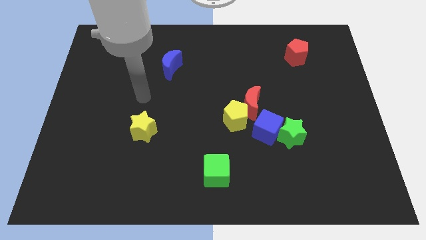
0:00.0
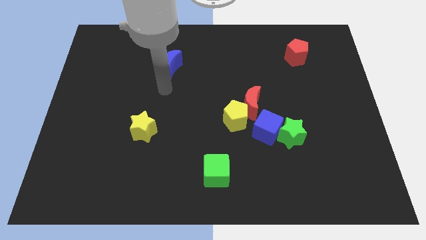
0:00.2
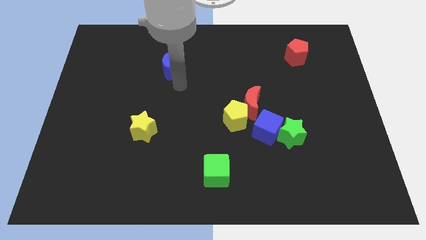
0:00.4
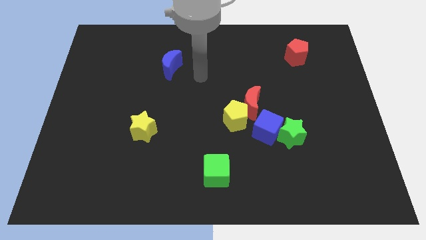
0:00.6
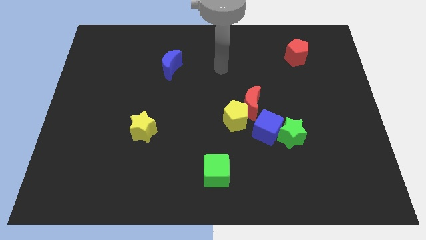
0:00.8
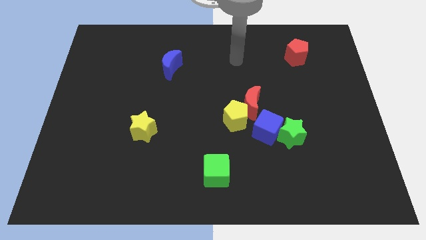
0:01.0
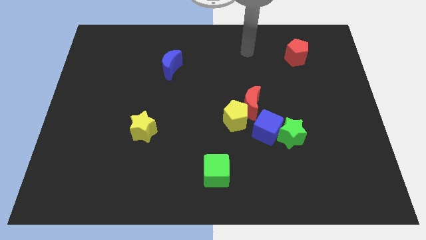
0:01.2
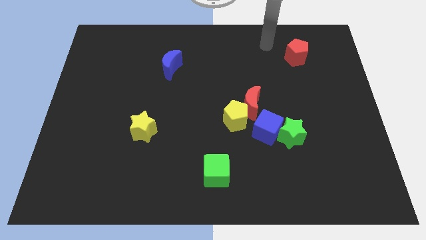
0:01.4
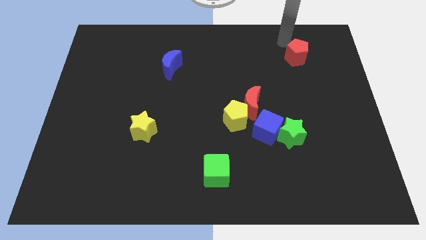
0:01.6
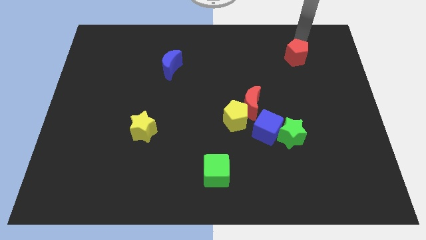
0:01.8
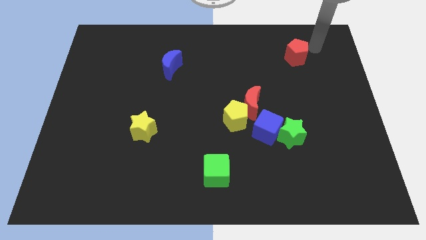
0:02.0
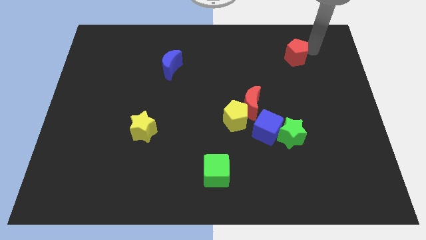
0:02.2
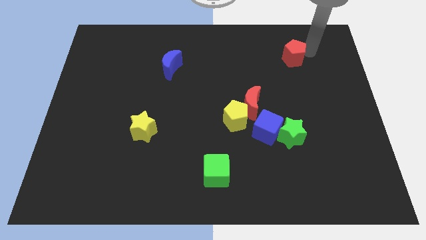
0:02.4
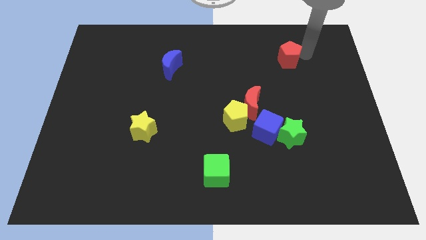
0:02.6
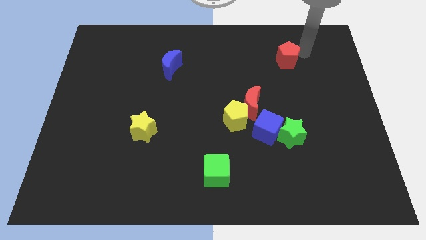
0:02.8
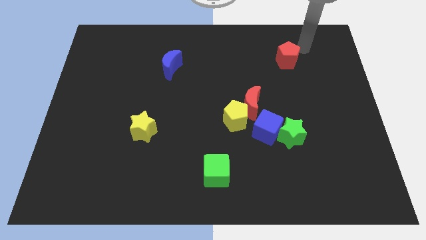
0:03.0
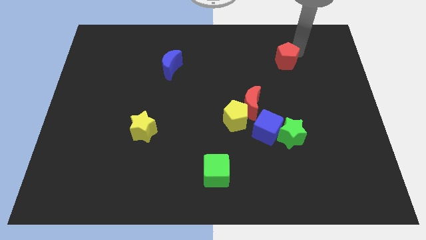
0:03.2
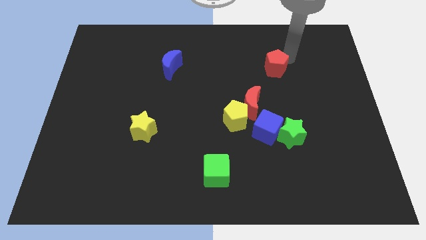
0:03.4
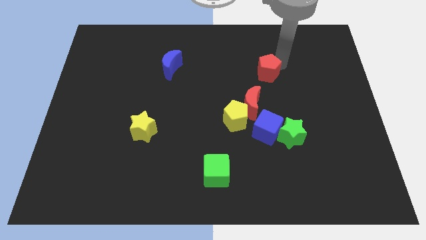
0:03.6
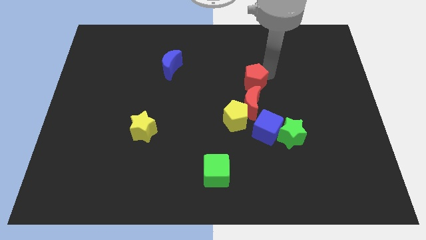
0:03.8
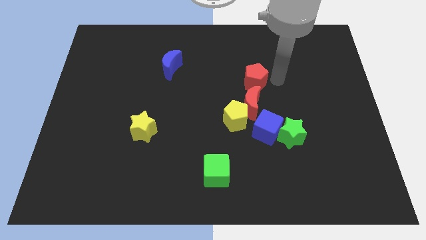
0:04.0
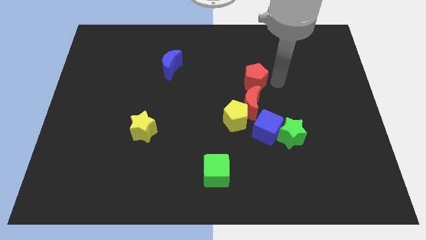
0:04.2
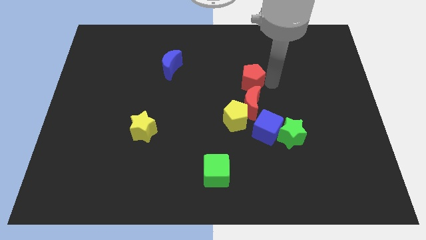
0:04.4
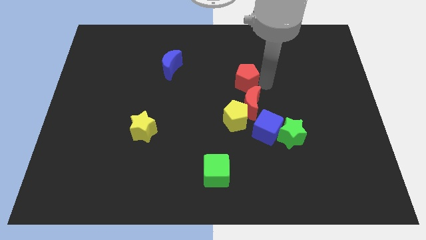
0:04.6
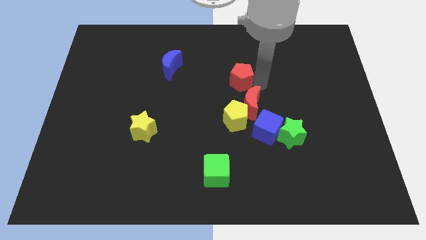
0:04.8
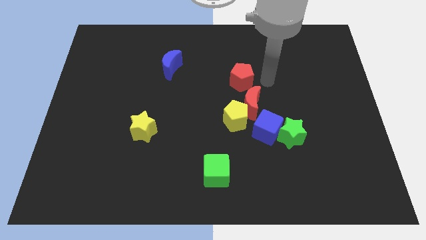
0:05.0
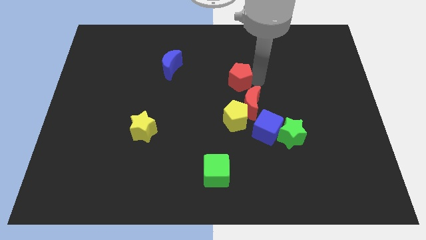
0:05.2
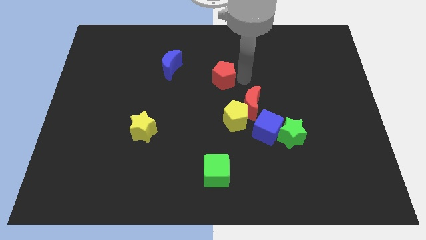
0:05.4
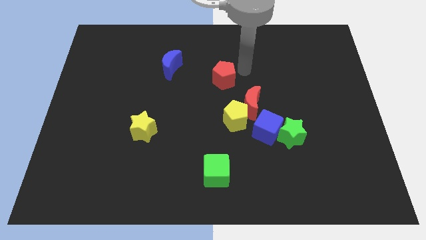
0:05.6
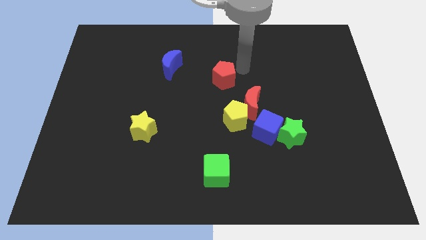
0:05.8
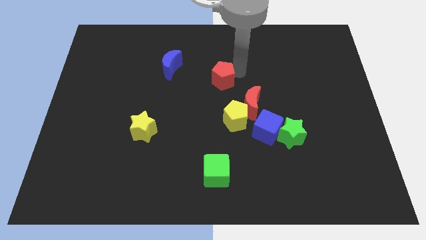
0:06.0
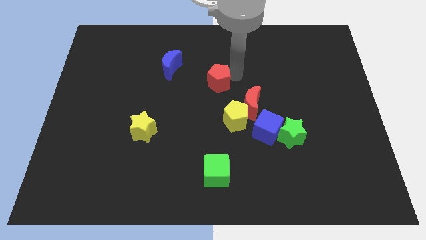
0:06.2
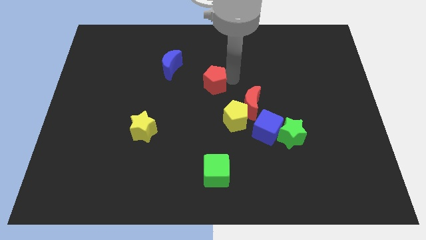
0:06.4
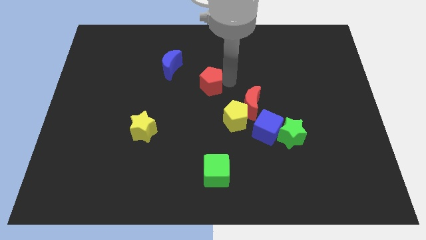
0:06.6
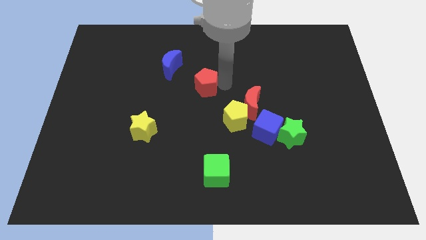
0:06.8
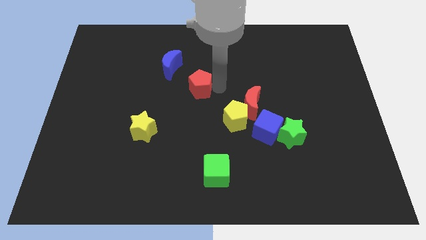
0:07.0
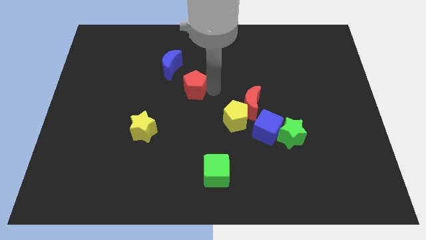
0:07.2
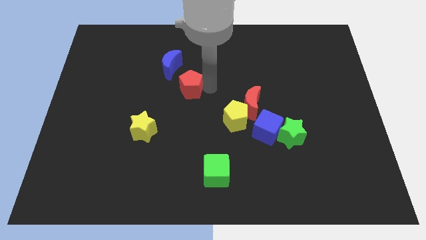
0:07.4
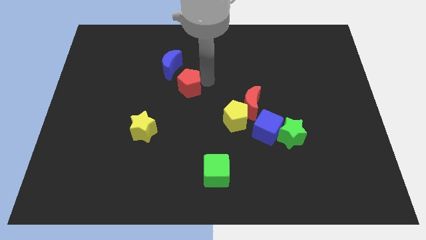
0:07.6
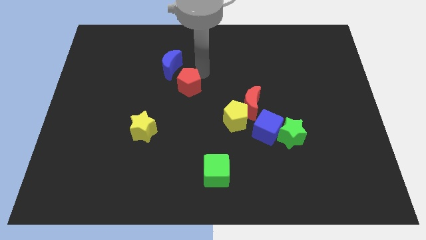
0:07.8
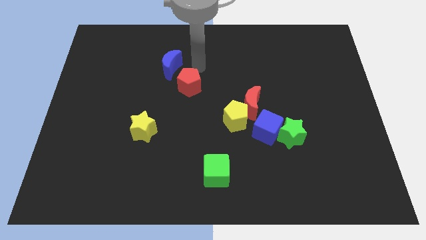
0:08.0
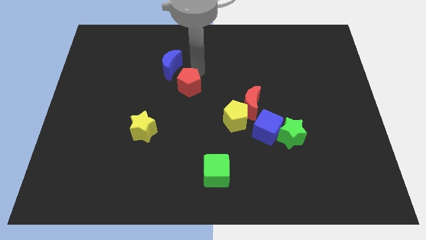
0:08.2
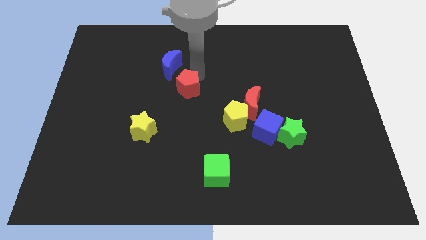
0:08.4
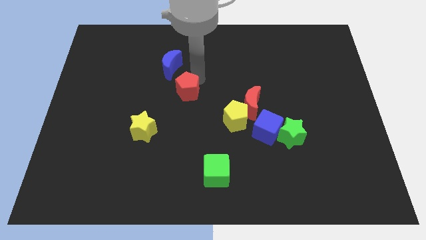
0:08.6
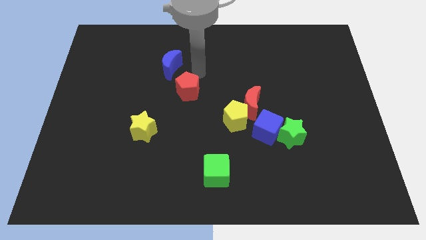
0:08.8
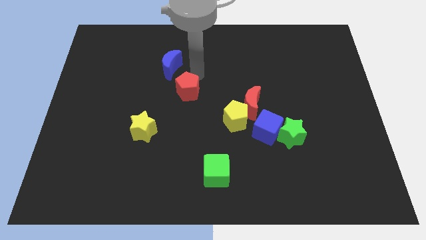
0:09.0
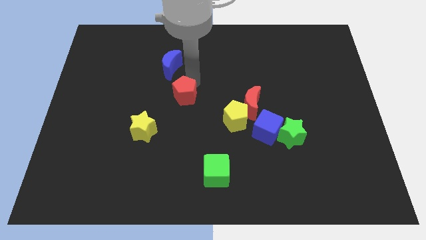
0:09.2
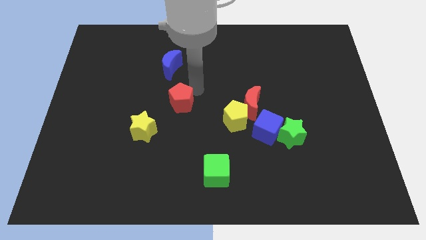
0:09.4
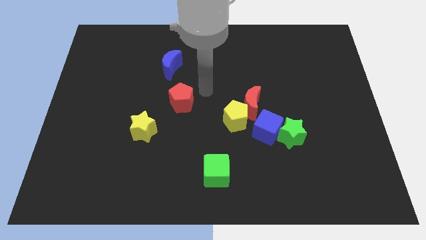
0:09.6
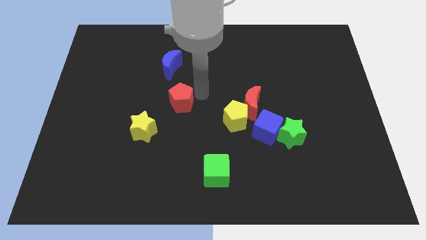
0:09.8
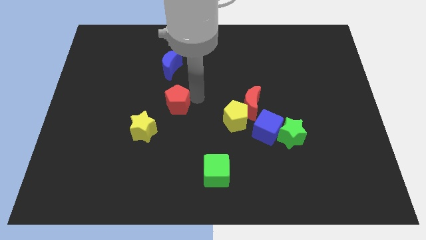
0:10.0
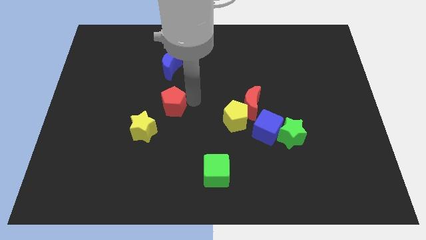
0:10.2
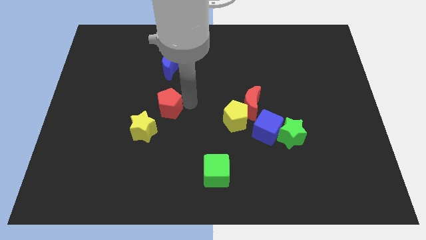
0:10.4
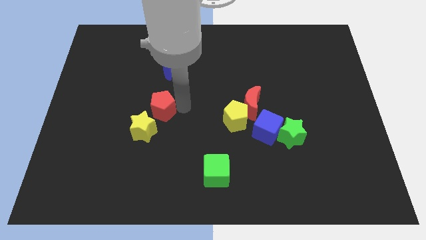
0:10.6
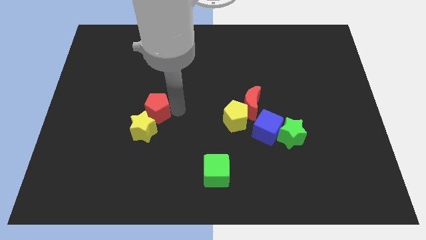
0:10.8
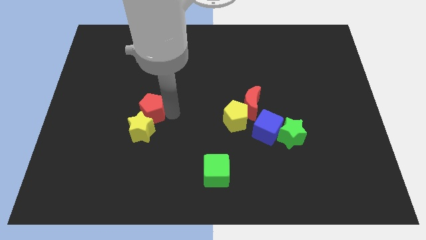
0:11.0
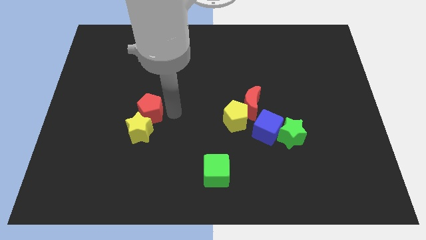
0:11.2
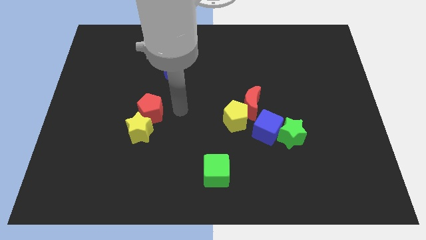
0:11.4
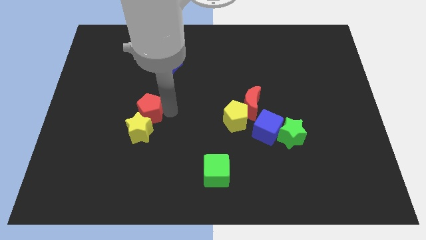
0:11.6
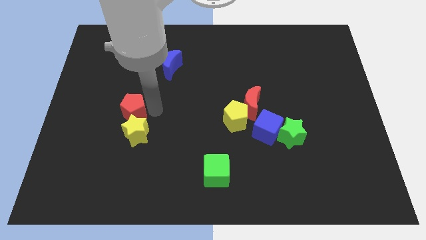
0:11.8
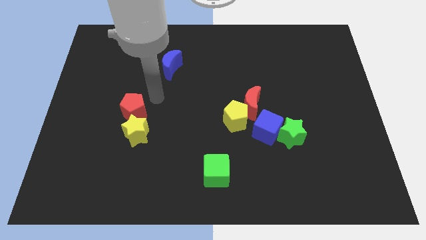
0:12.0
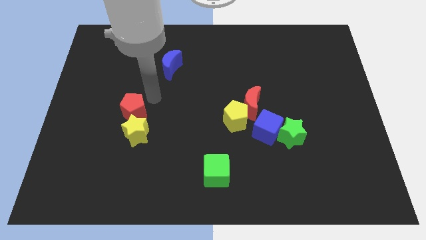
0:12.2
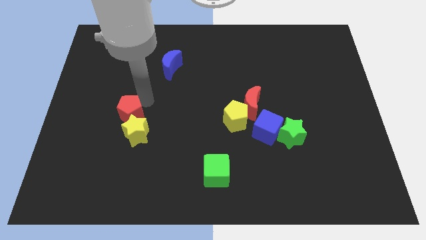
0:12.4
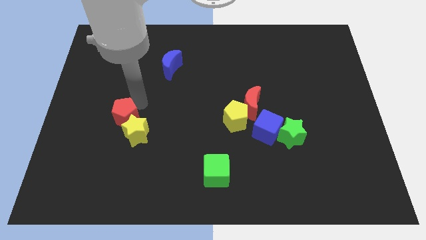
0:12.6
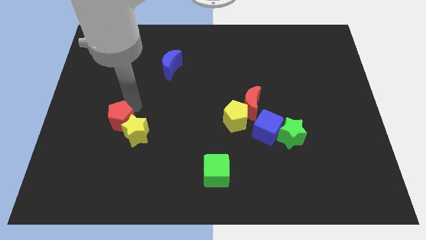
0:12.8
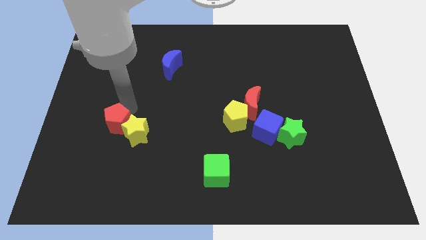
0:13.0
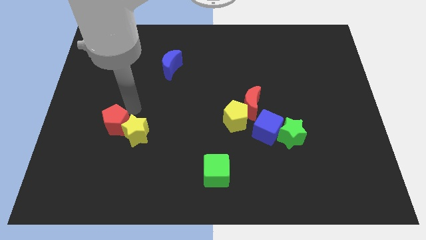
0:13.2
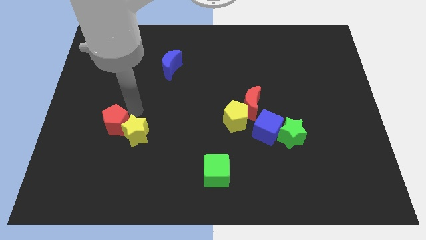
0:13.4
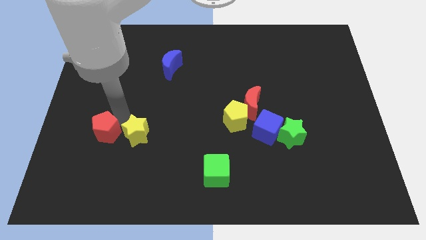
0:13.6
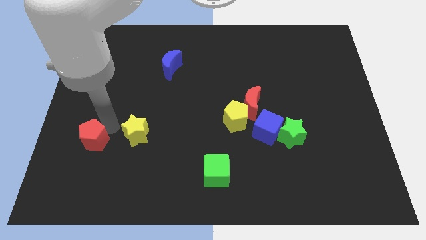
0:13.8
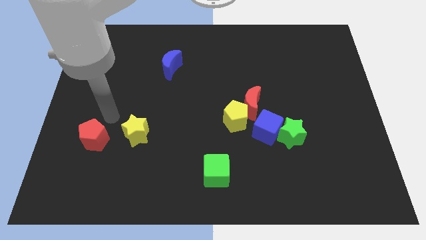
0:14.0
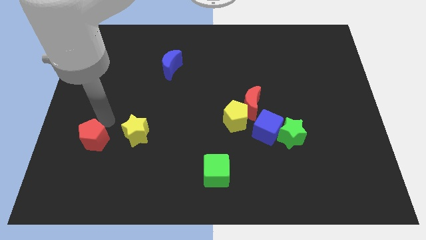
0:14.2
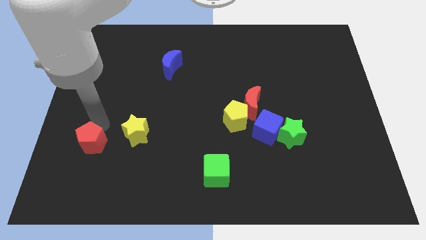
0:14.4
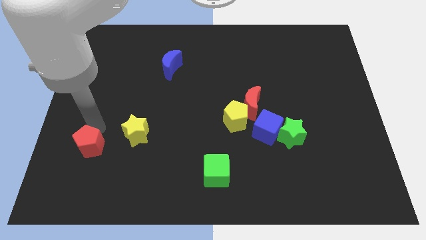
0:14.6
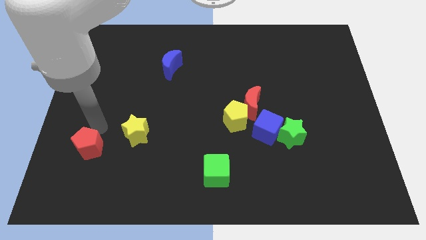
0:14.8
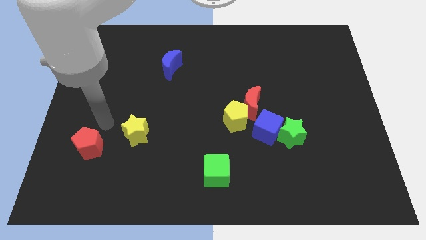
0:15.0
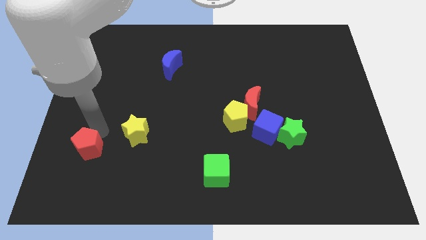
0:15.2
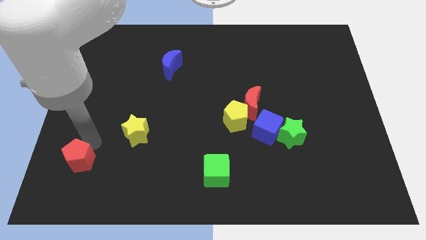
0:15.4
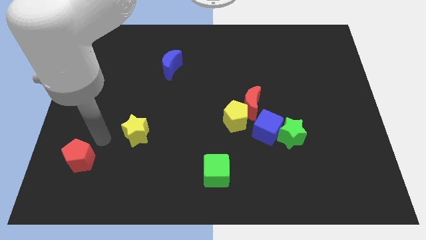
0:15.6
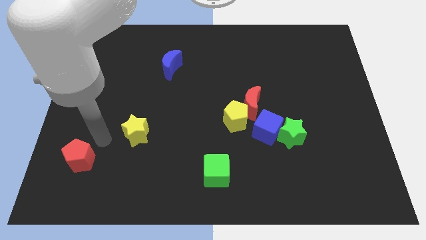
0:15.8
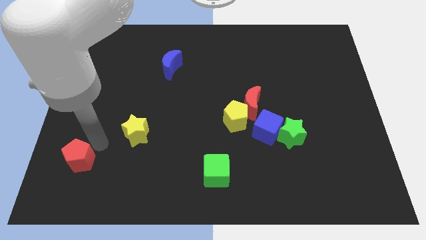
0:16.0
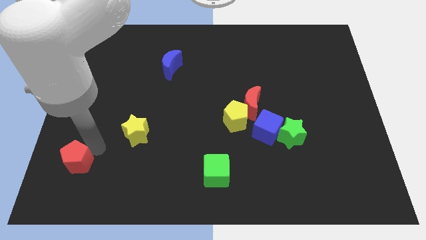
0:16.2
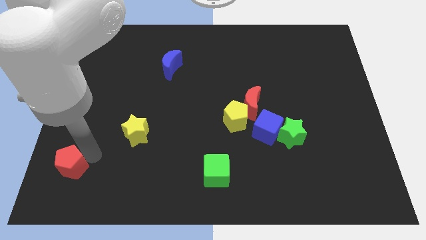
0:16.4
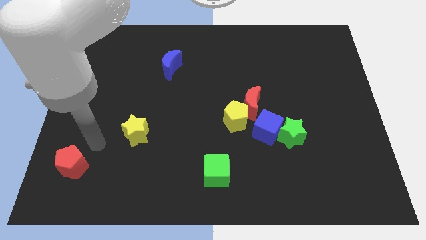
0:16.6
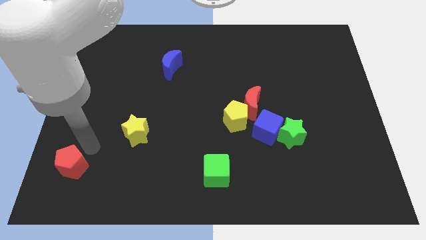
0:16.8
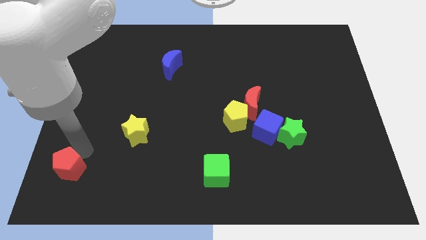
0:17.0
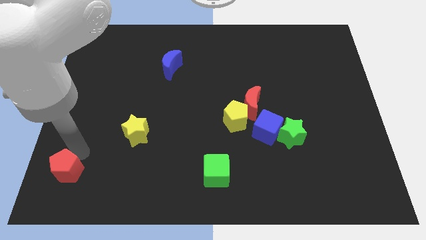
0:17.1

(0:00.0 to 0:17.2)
push the red pentagon to the lower left corner
